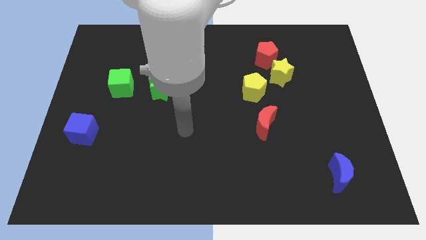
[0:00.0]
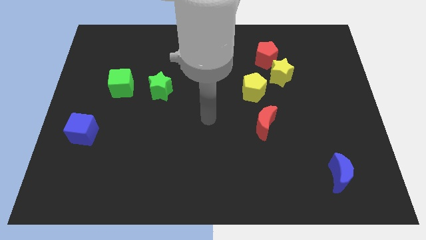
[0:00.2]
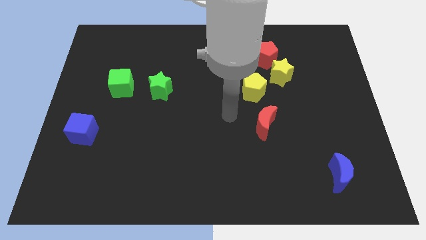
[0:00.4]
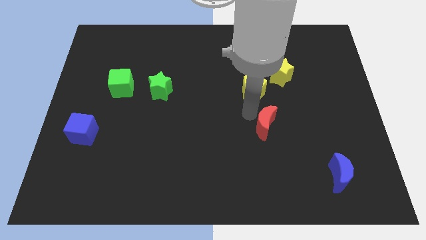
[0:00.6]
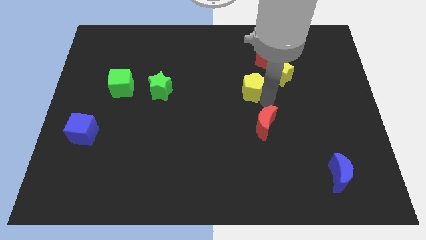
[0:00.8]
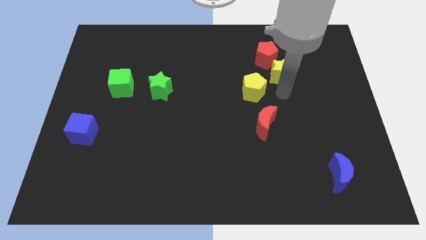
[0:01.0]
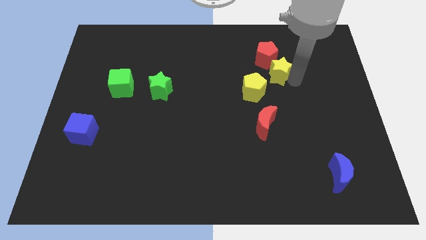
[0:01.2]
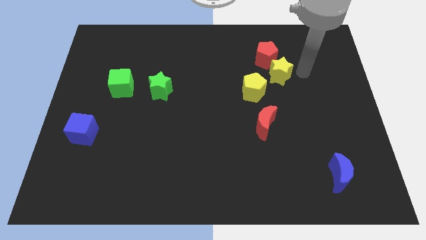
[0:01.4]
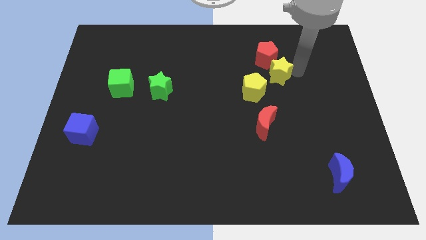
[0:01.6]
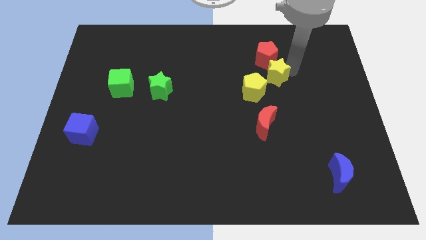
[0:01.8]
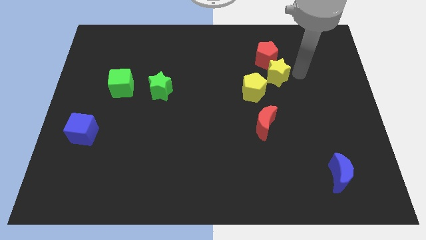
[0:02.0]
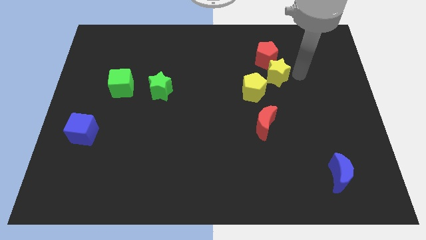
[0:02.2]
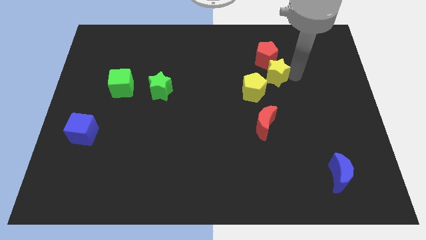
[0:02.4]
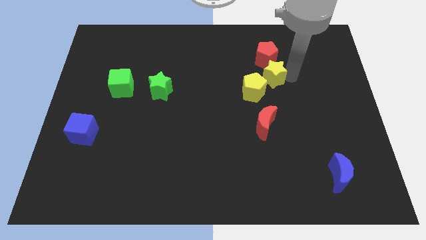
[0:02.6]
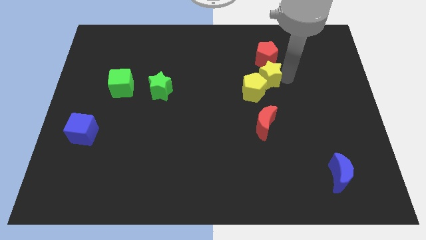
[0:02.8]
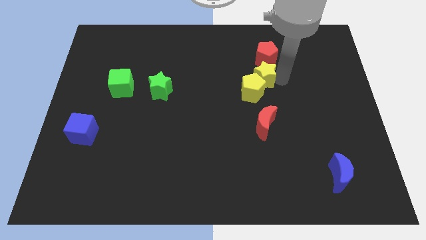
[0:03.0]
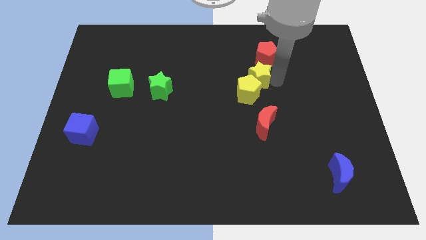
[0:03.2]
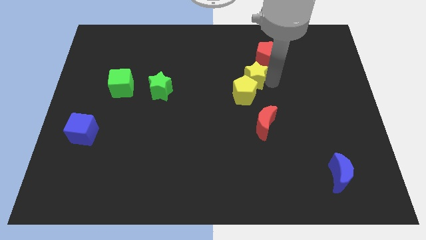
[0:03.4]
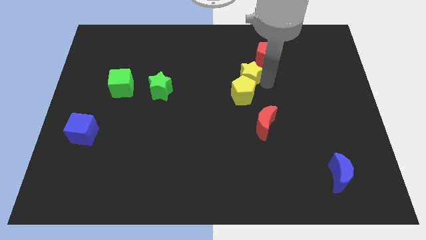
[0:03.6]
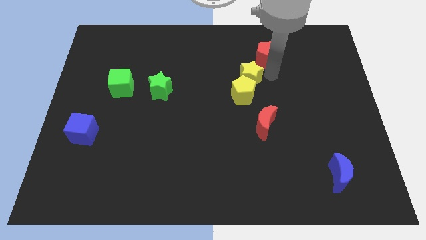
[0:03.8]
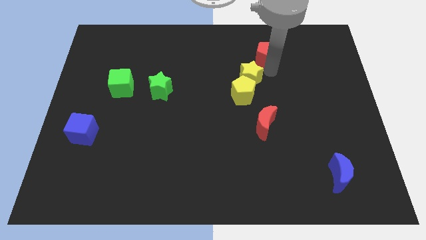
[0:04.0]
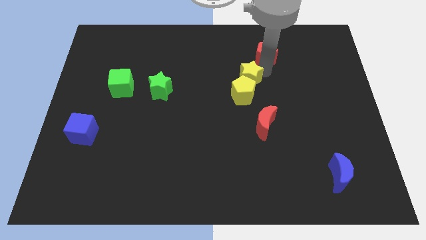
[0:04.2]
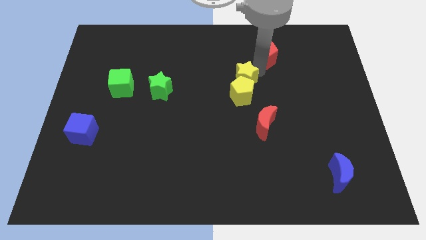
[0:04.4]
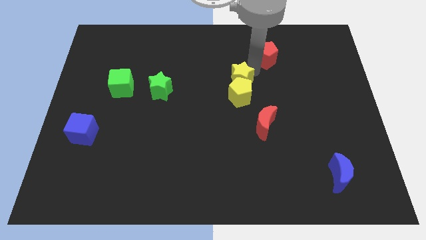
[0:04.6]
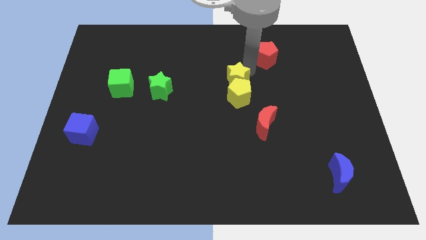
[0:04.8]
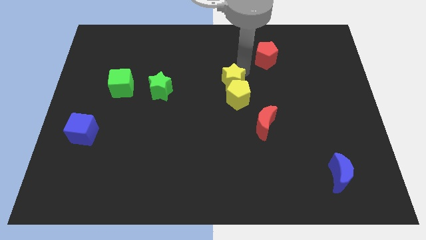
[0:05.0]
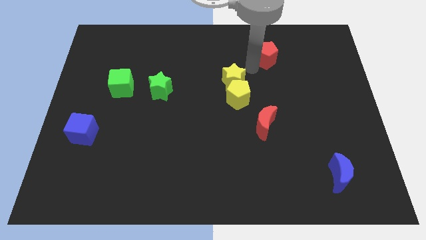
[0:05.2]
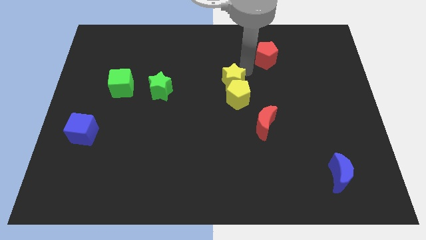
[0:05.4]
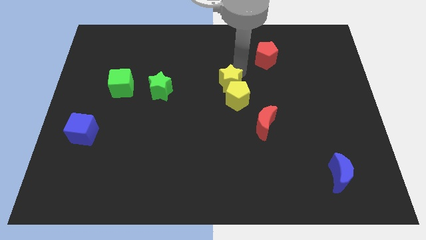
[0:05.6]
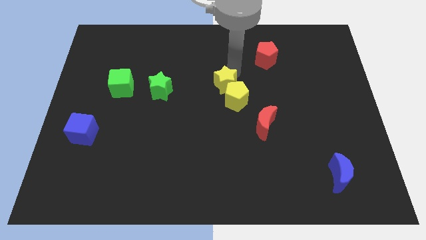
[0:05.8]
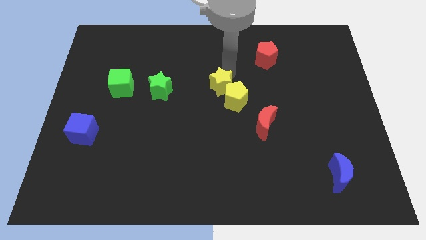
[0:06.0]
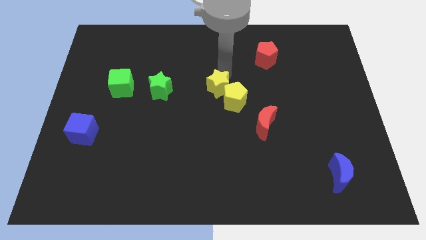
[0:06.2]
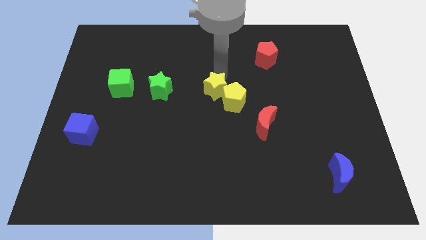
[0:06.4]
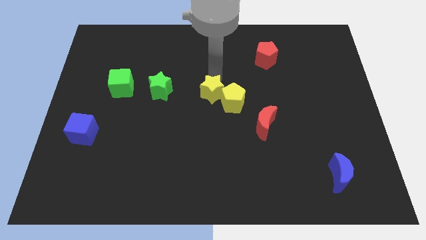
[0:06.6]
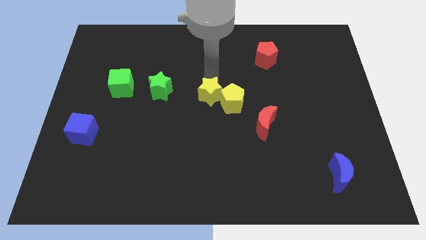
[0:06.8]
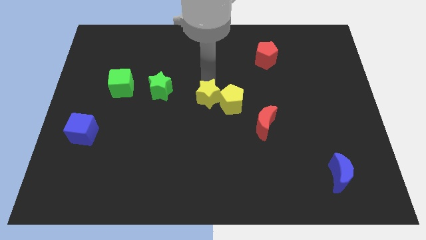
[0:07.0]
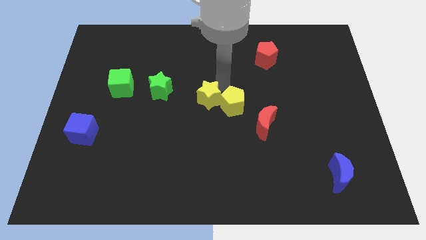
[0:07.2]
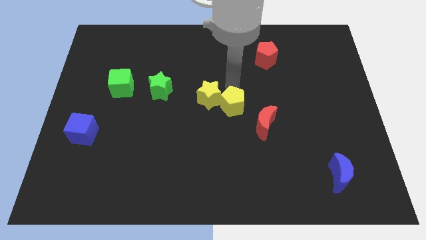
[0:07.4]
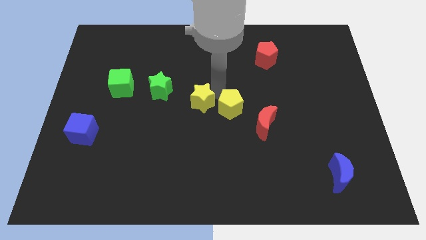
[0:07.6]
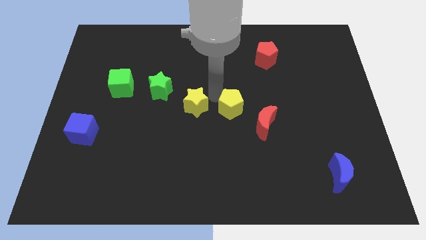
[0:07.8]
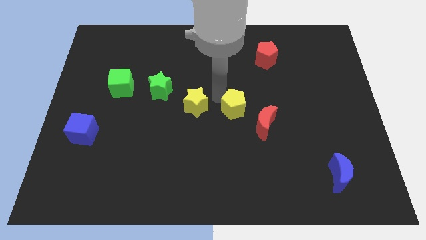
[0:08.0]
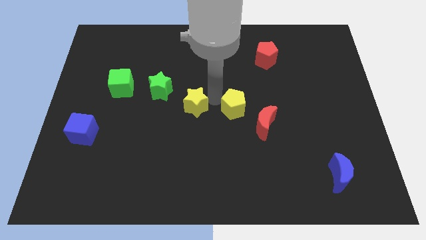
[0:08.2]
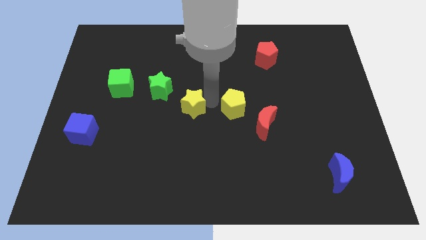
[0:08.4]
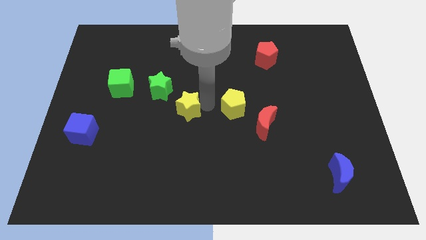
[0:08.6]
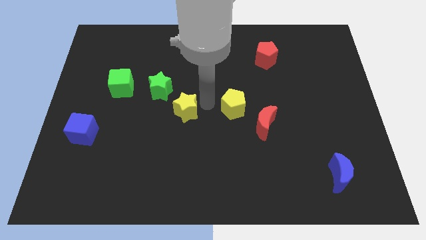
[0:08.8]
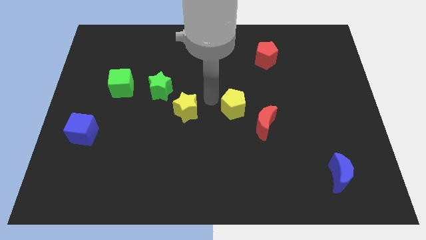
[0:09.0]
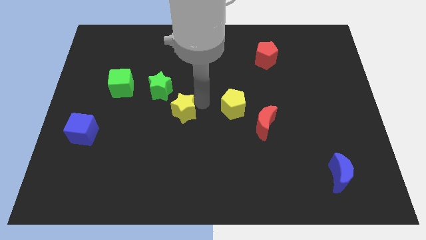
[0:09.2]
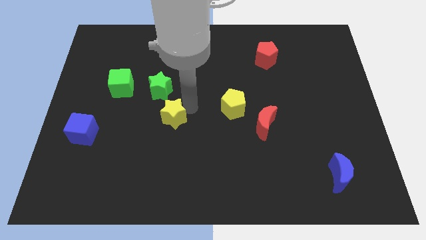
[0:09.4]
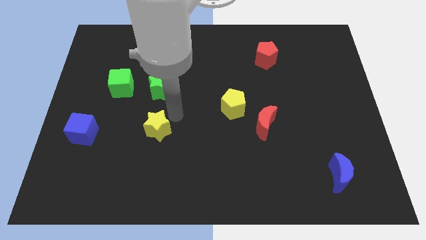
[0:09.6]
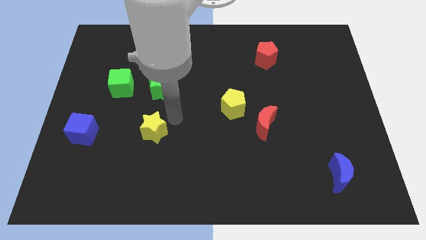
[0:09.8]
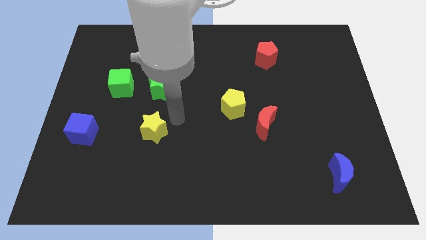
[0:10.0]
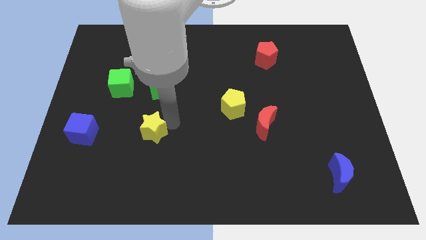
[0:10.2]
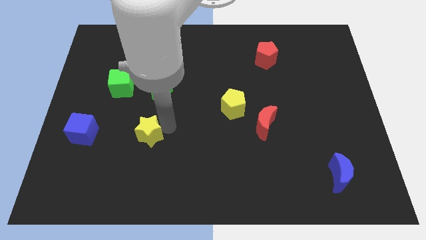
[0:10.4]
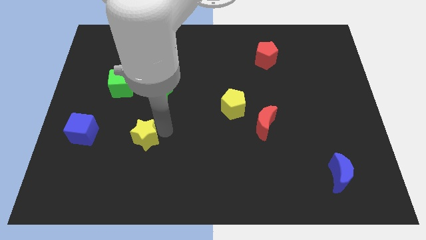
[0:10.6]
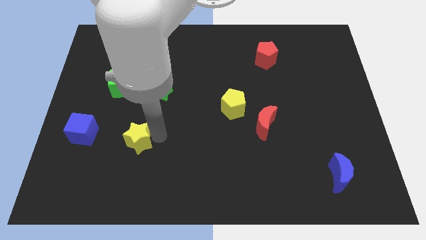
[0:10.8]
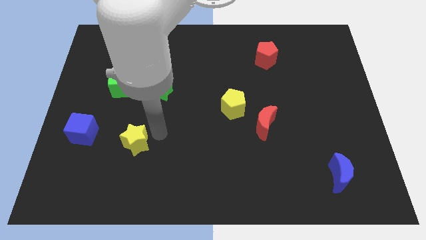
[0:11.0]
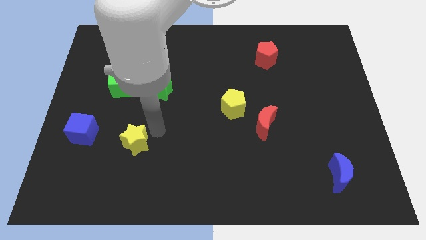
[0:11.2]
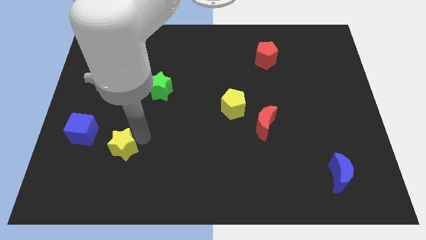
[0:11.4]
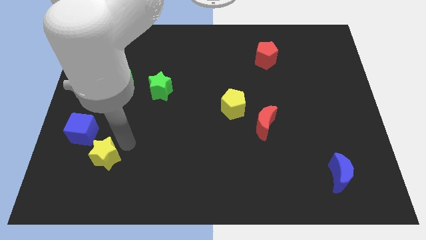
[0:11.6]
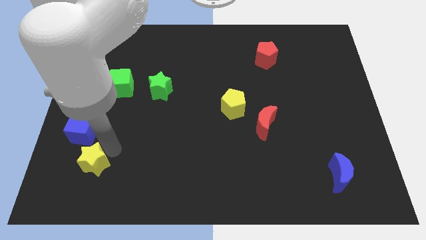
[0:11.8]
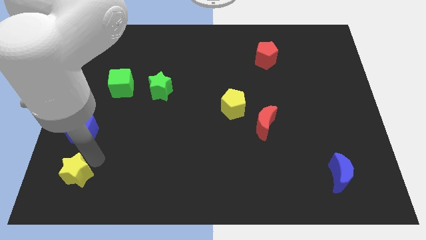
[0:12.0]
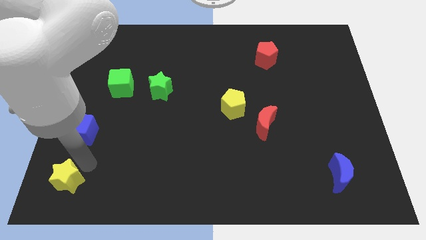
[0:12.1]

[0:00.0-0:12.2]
slide the yellow star to the bottom left
